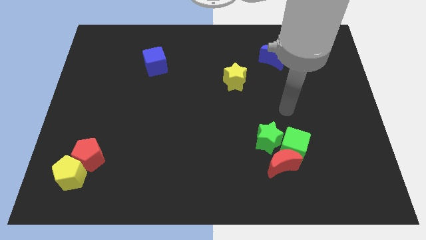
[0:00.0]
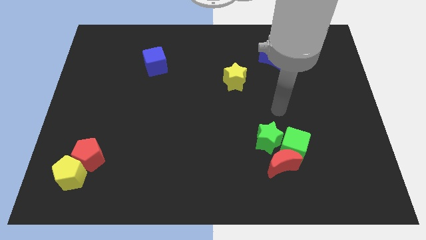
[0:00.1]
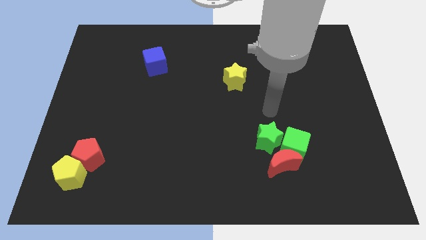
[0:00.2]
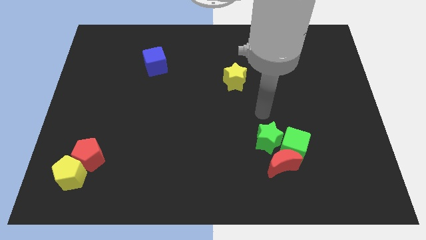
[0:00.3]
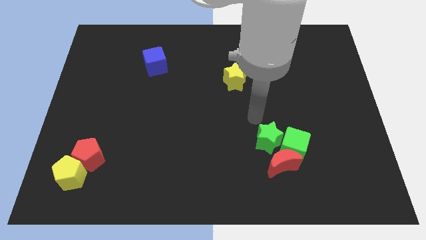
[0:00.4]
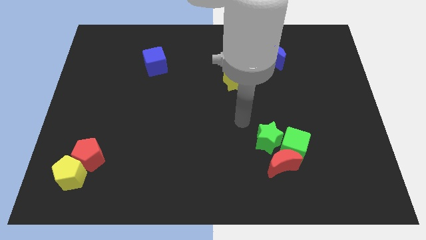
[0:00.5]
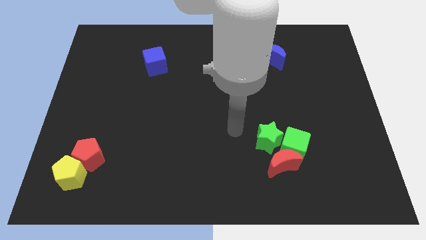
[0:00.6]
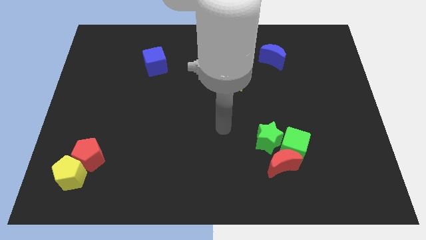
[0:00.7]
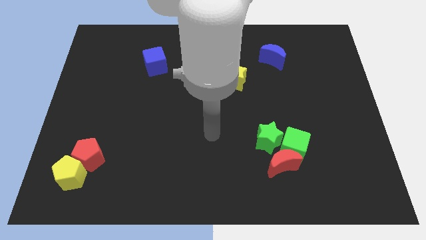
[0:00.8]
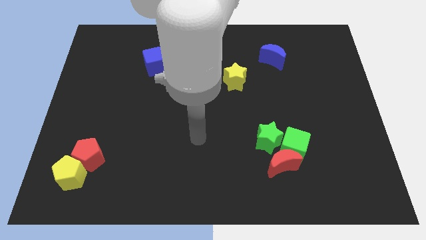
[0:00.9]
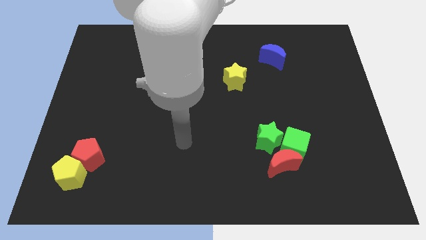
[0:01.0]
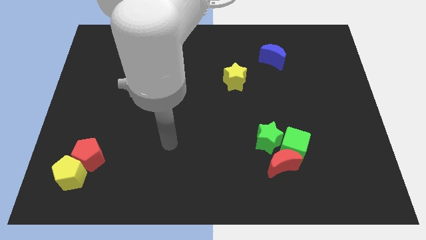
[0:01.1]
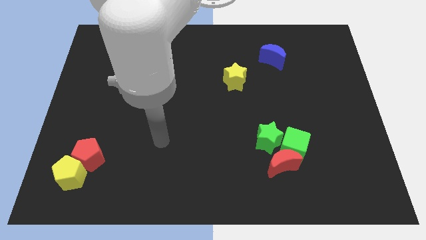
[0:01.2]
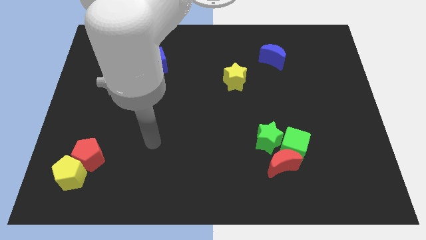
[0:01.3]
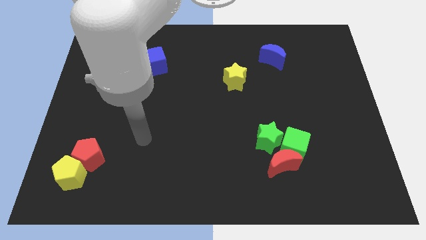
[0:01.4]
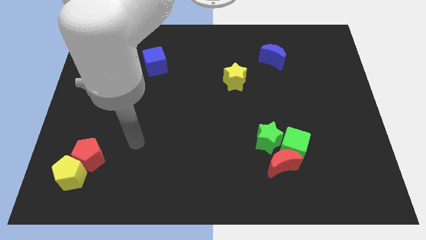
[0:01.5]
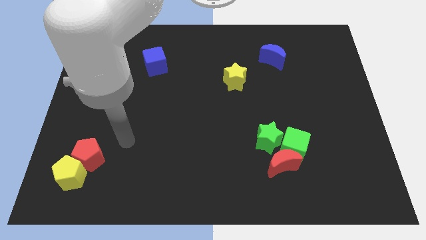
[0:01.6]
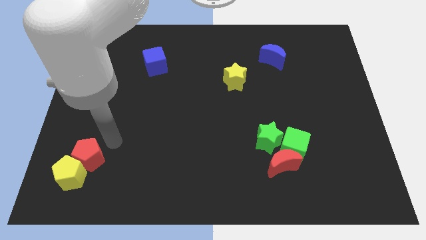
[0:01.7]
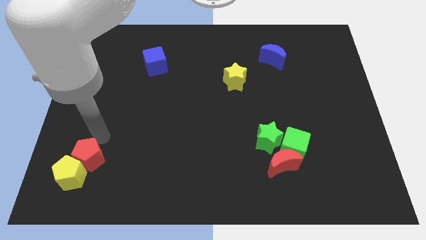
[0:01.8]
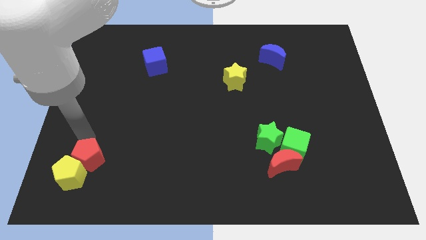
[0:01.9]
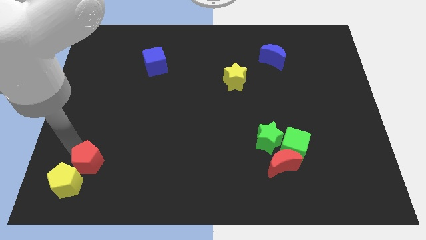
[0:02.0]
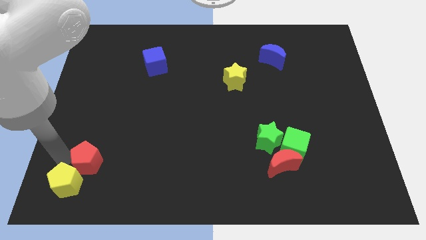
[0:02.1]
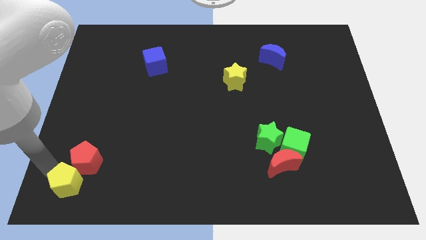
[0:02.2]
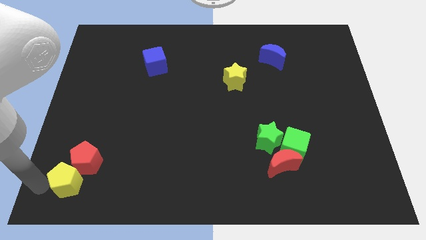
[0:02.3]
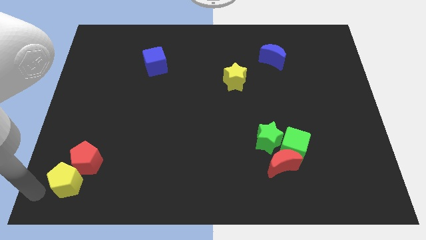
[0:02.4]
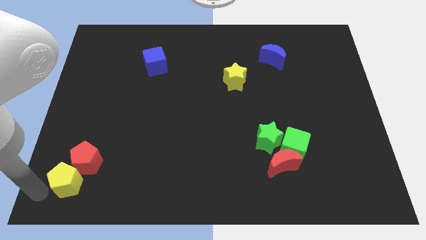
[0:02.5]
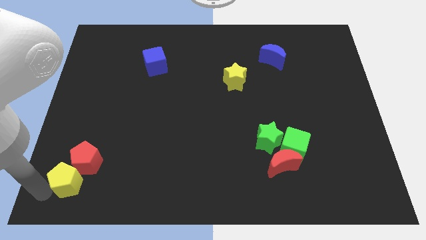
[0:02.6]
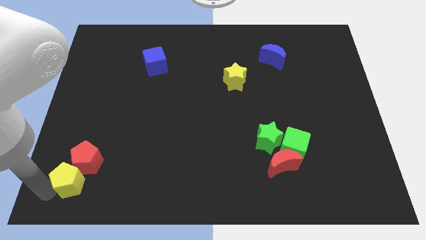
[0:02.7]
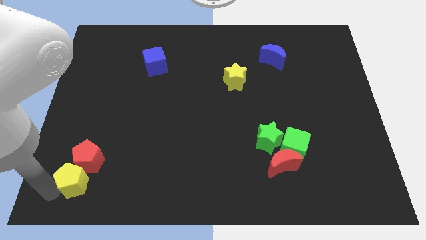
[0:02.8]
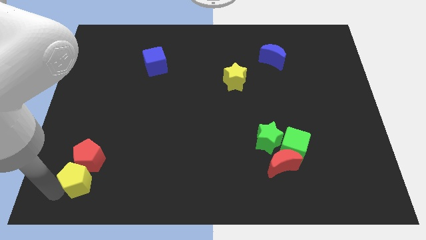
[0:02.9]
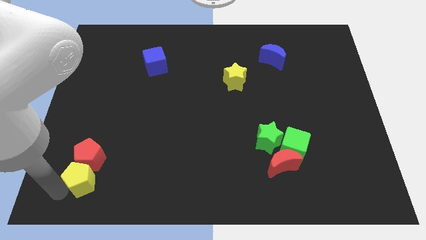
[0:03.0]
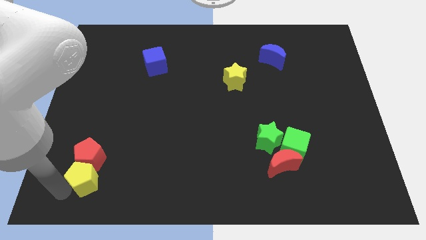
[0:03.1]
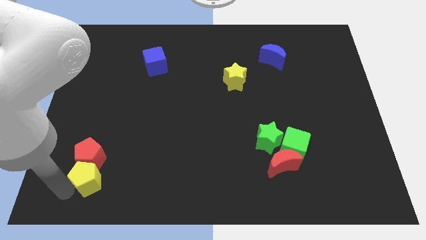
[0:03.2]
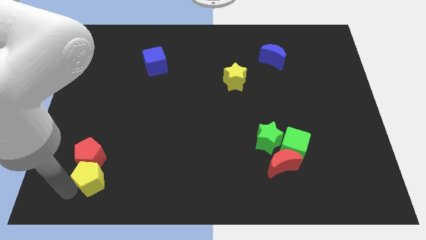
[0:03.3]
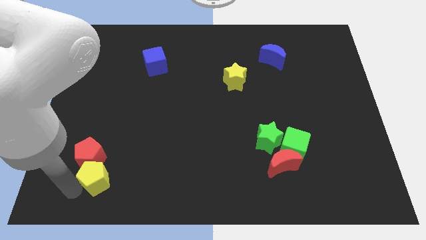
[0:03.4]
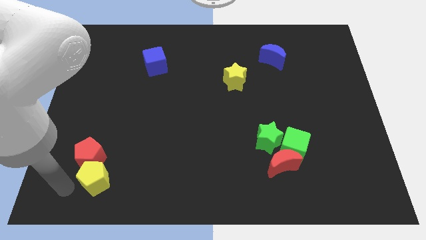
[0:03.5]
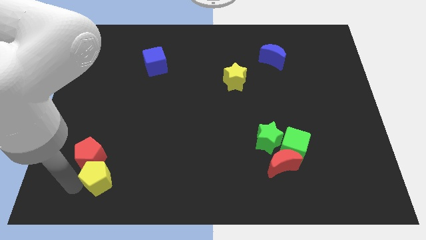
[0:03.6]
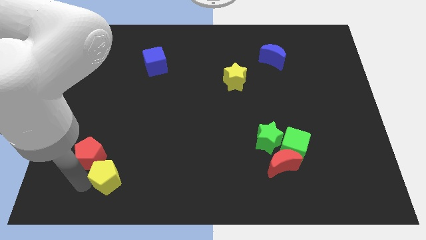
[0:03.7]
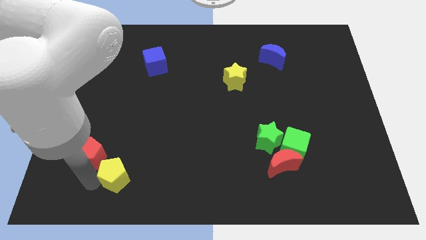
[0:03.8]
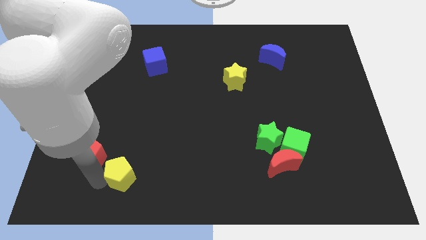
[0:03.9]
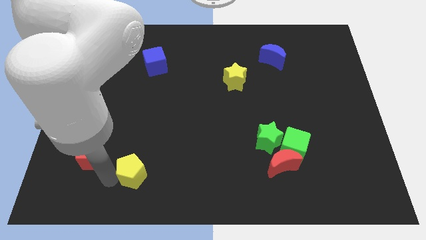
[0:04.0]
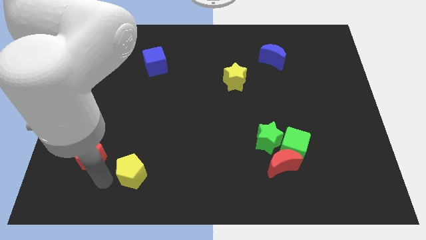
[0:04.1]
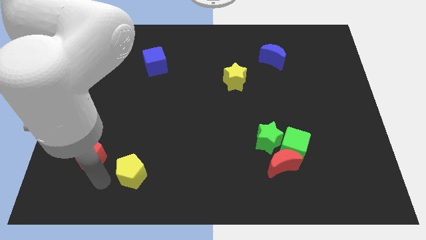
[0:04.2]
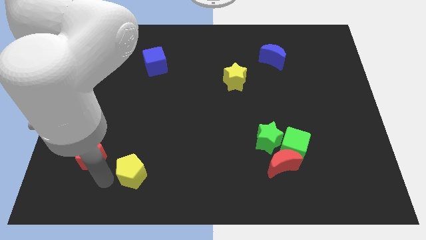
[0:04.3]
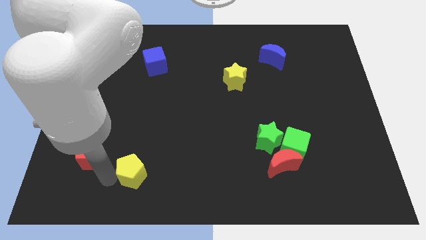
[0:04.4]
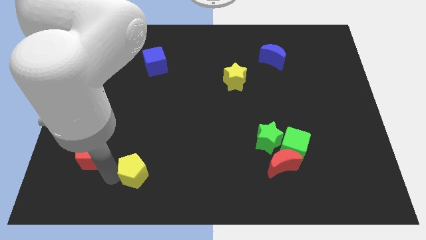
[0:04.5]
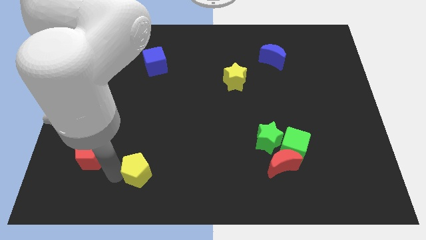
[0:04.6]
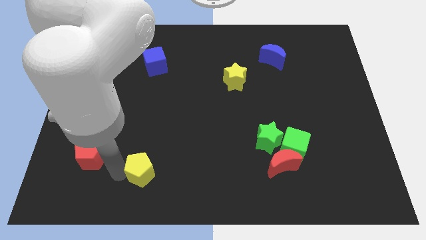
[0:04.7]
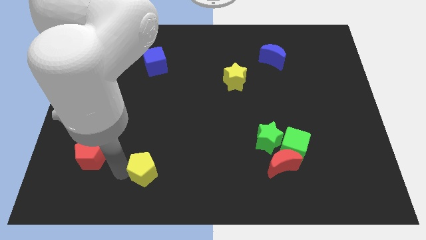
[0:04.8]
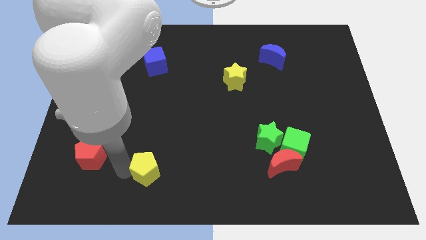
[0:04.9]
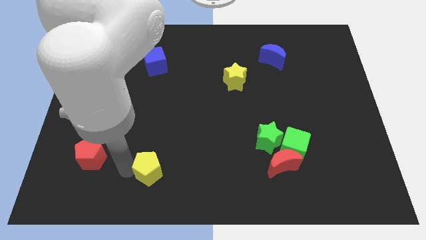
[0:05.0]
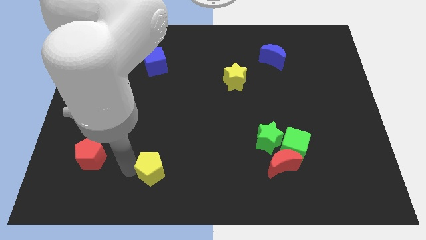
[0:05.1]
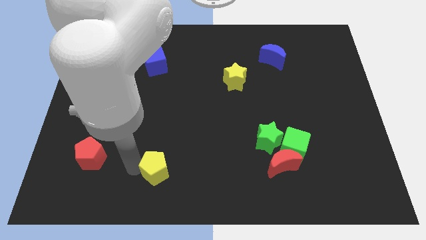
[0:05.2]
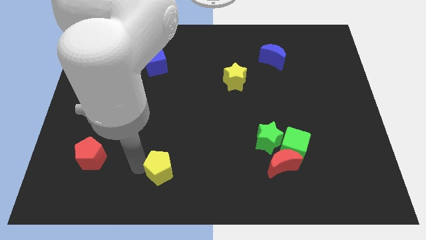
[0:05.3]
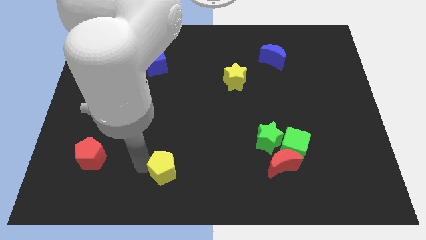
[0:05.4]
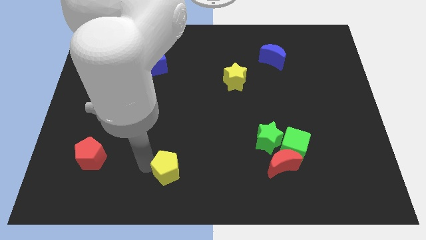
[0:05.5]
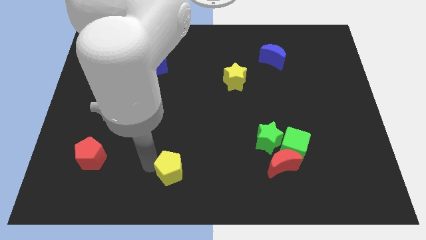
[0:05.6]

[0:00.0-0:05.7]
slide the yellow pentagon right

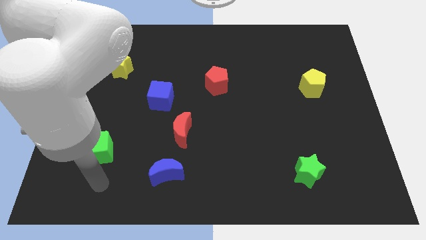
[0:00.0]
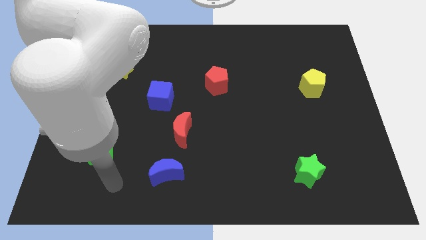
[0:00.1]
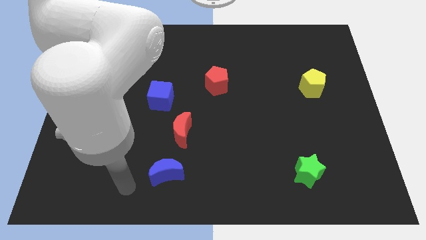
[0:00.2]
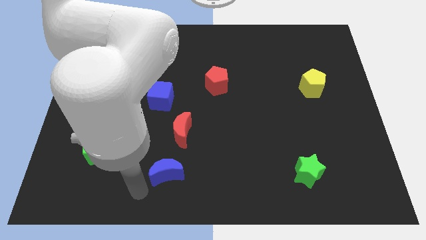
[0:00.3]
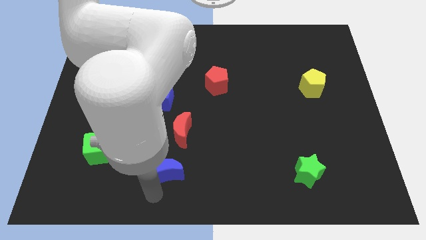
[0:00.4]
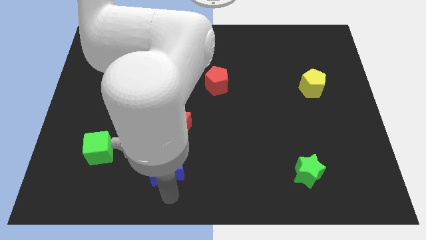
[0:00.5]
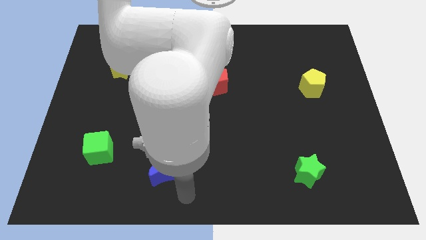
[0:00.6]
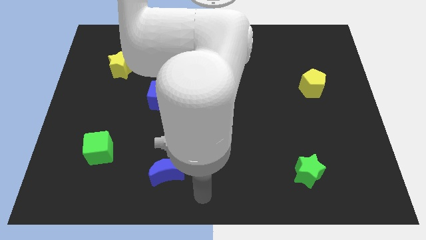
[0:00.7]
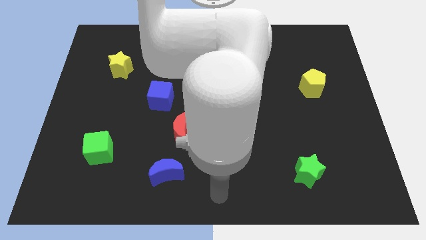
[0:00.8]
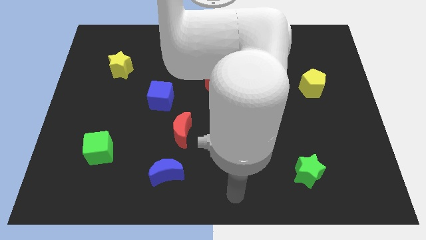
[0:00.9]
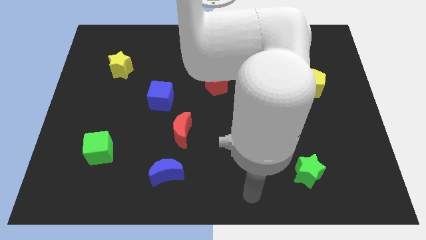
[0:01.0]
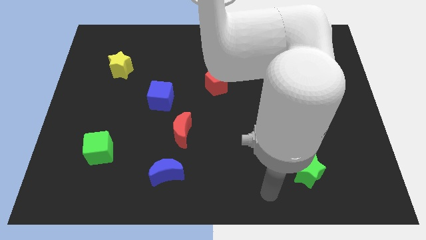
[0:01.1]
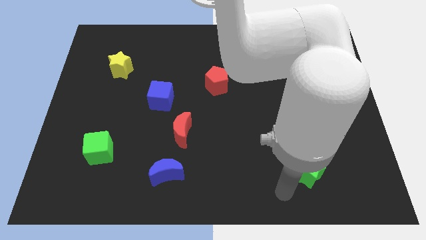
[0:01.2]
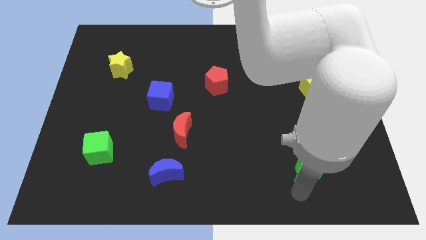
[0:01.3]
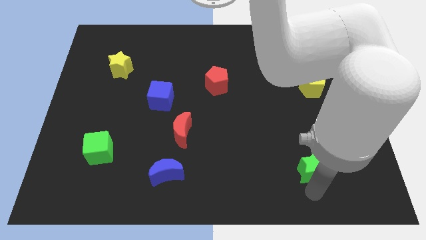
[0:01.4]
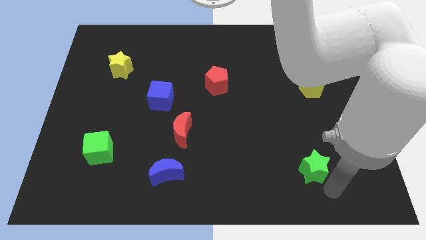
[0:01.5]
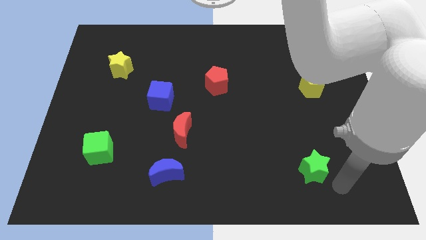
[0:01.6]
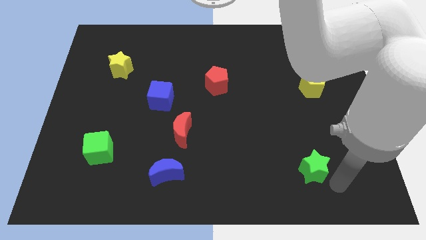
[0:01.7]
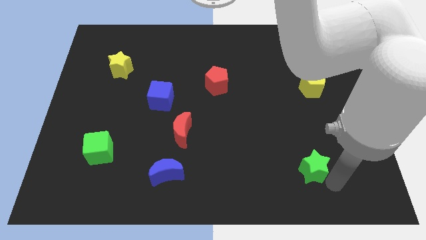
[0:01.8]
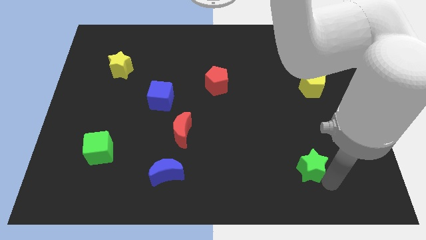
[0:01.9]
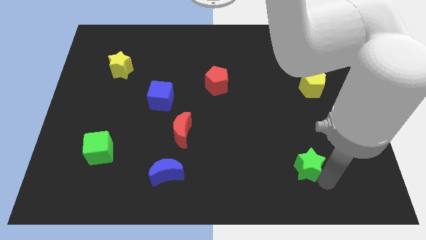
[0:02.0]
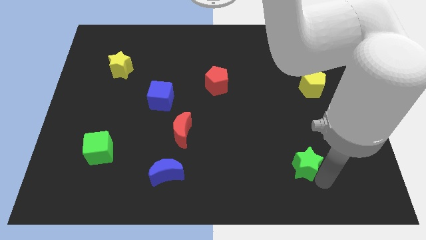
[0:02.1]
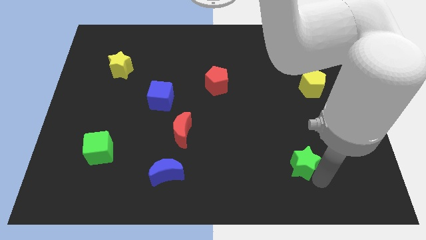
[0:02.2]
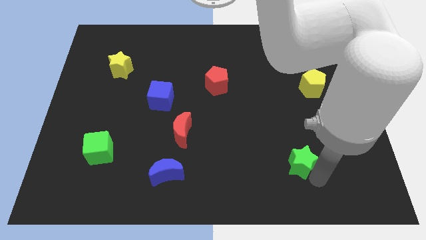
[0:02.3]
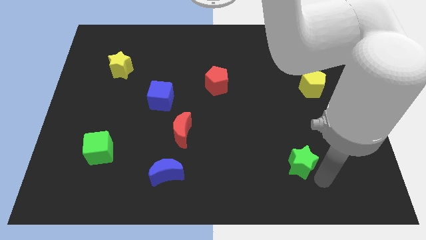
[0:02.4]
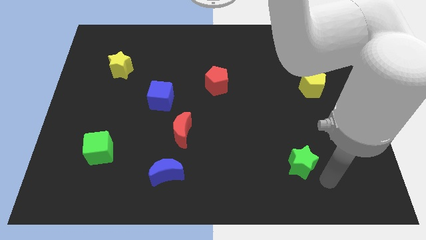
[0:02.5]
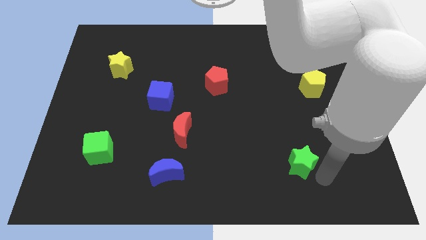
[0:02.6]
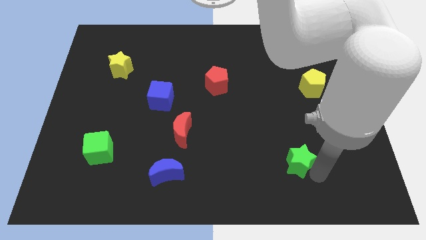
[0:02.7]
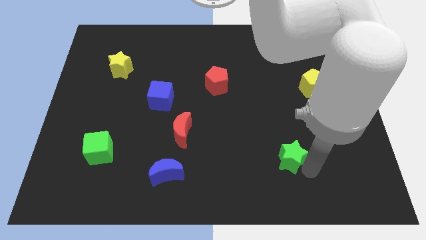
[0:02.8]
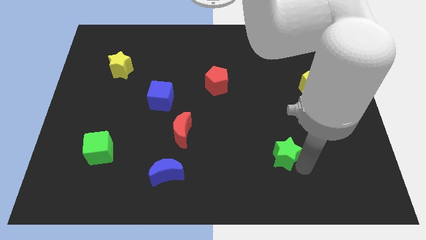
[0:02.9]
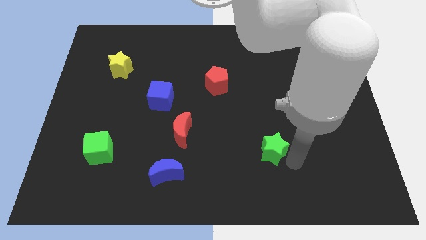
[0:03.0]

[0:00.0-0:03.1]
move the green star slightly up and to the left diagonally
